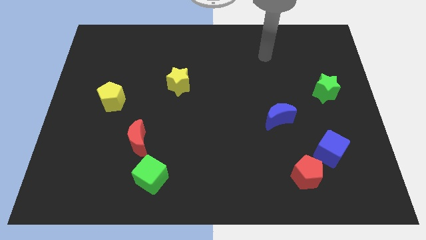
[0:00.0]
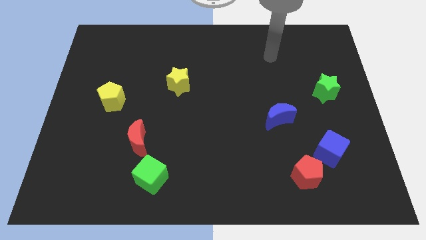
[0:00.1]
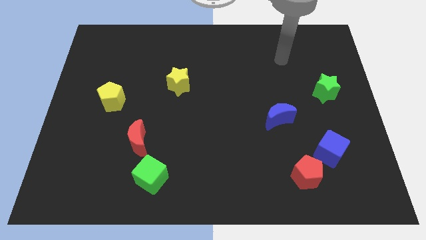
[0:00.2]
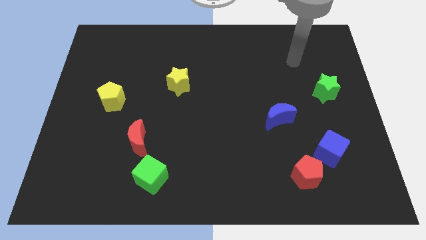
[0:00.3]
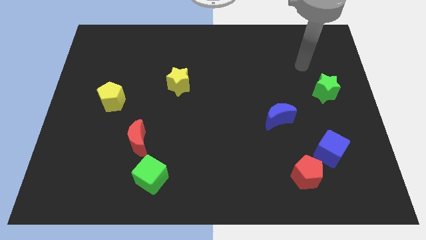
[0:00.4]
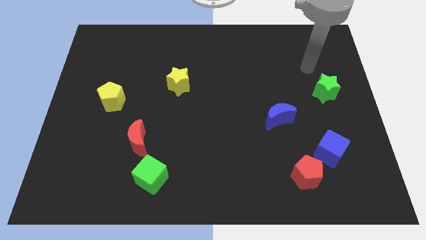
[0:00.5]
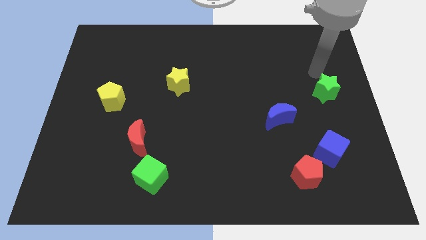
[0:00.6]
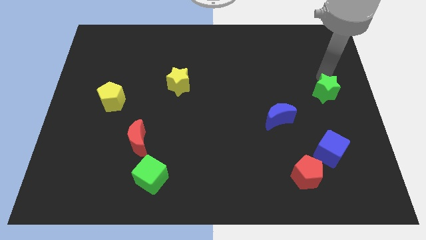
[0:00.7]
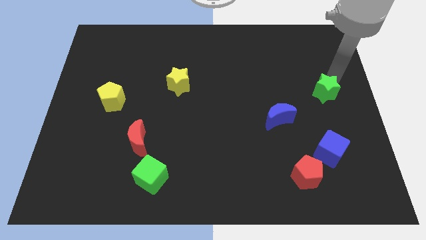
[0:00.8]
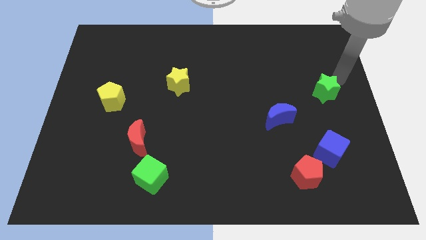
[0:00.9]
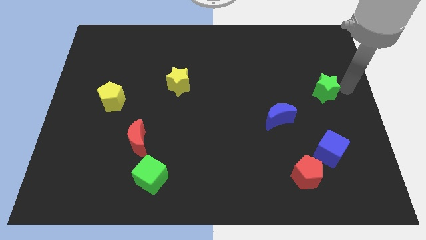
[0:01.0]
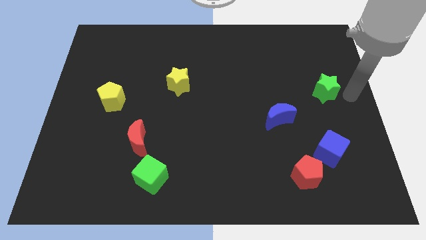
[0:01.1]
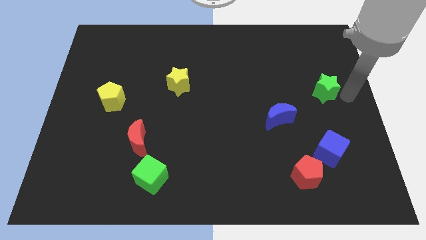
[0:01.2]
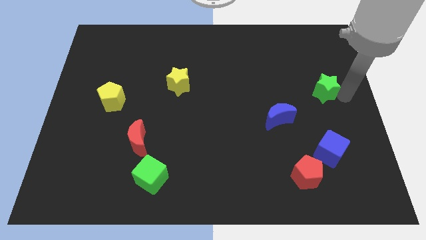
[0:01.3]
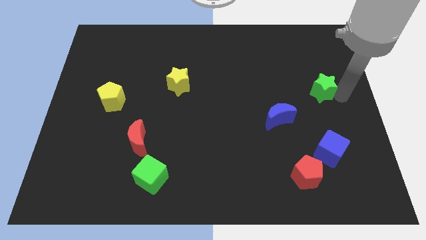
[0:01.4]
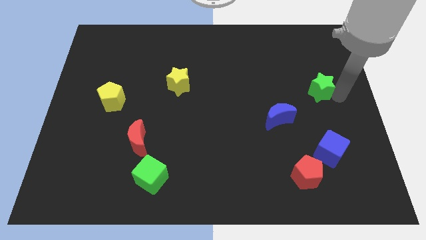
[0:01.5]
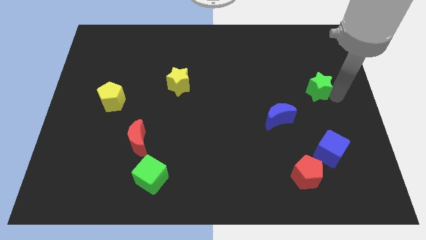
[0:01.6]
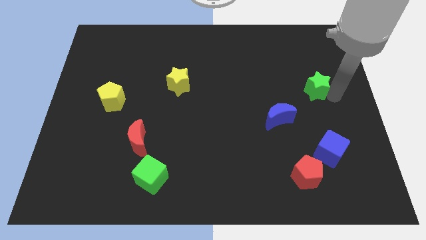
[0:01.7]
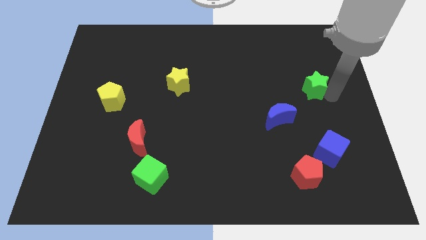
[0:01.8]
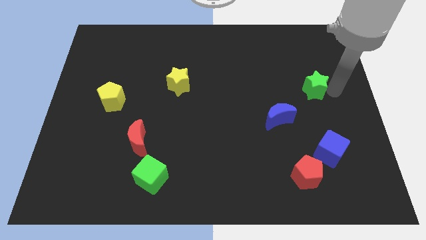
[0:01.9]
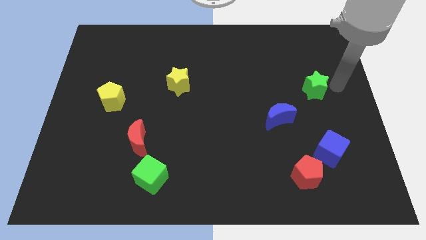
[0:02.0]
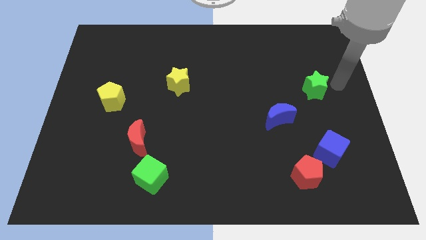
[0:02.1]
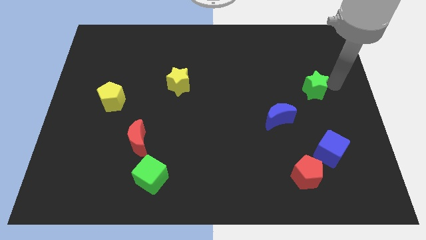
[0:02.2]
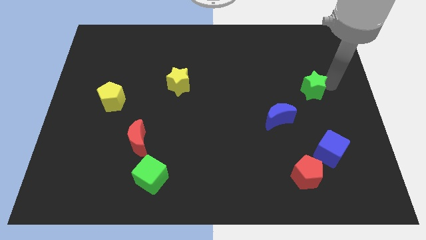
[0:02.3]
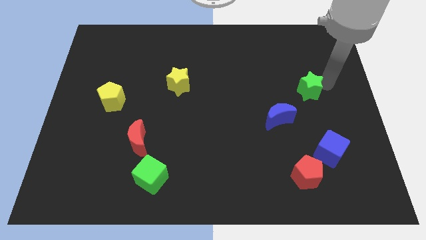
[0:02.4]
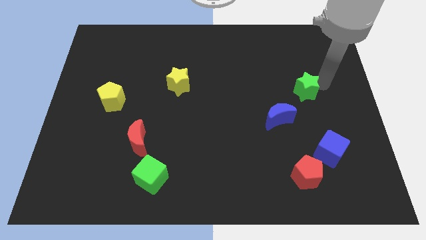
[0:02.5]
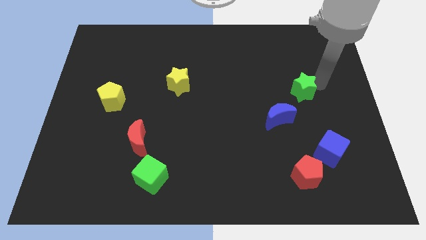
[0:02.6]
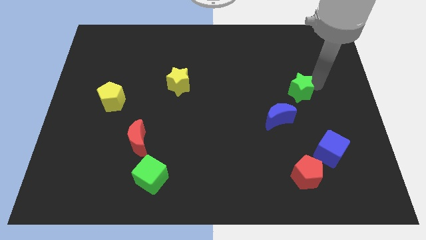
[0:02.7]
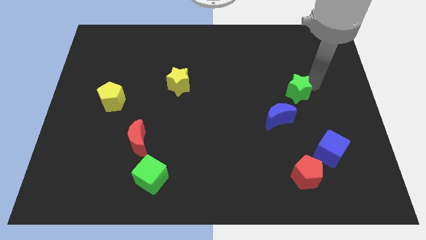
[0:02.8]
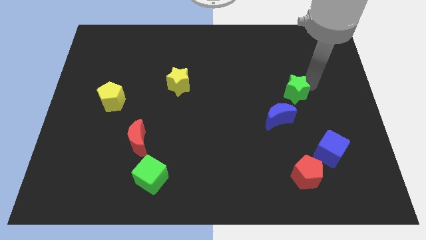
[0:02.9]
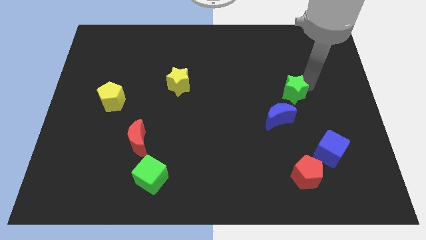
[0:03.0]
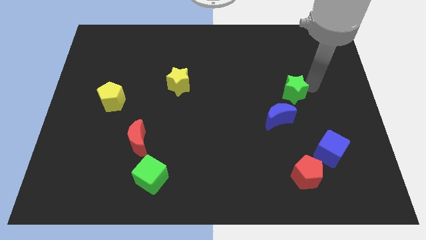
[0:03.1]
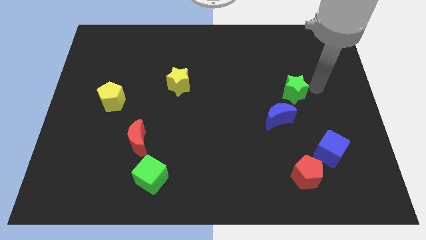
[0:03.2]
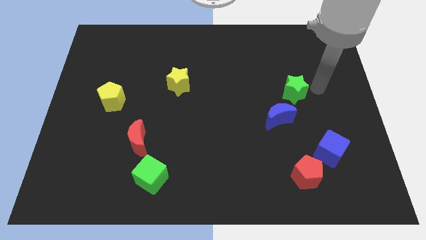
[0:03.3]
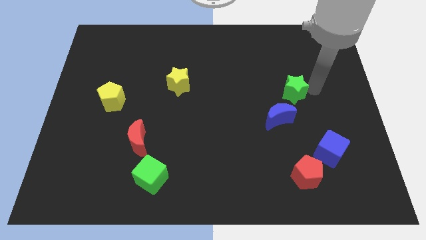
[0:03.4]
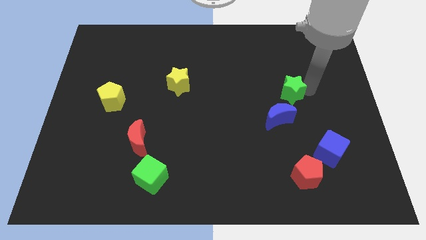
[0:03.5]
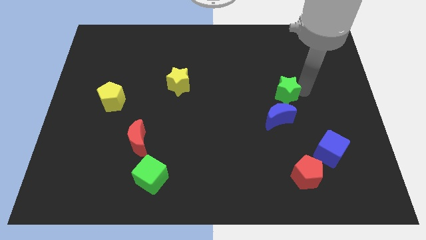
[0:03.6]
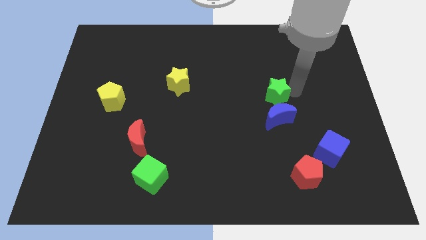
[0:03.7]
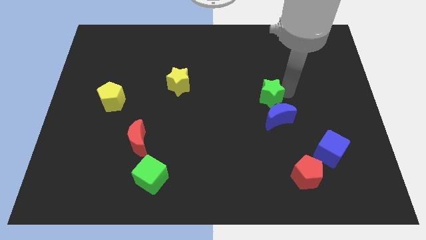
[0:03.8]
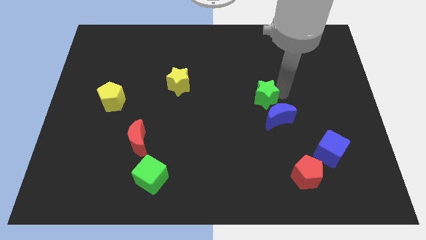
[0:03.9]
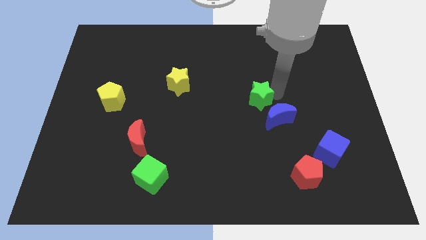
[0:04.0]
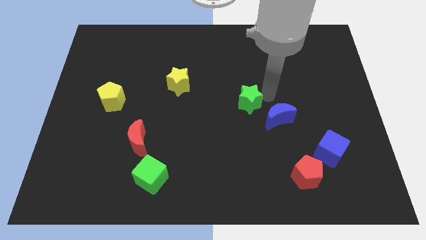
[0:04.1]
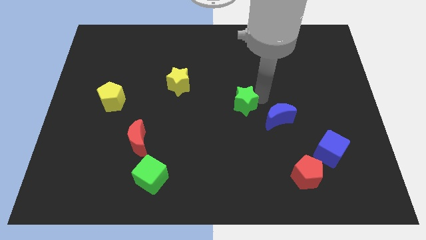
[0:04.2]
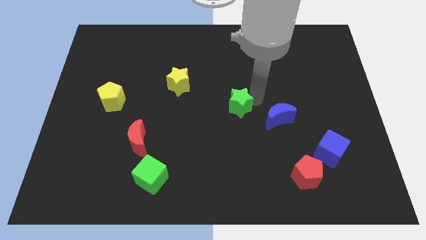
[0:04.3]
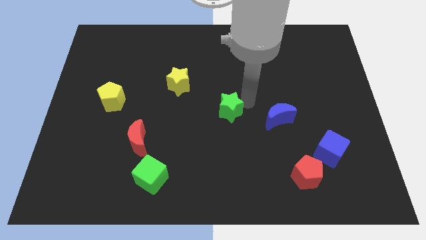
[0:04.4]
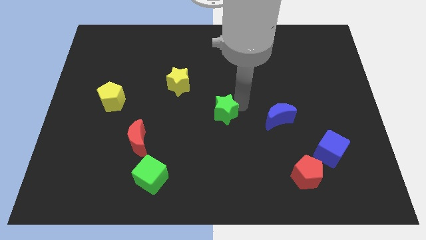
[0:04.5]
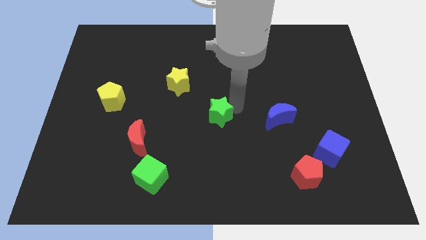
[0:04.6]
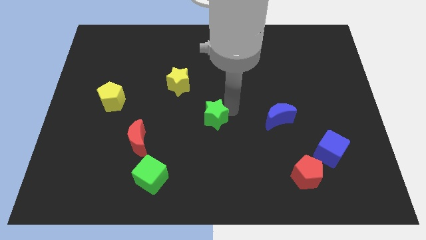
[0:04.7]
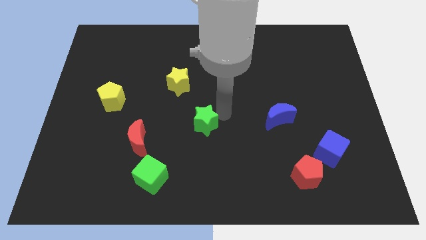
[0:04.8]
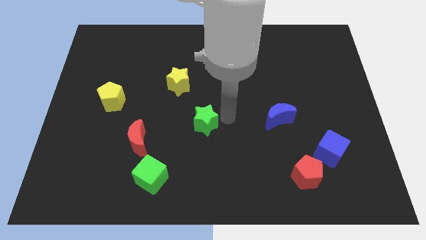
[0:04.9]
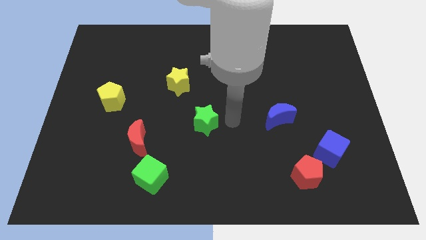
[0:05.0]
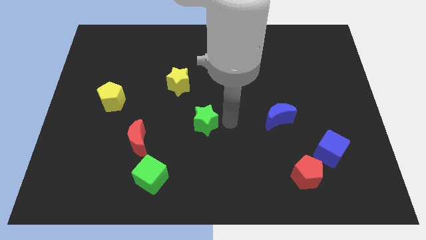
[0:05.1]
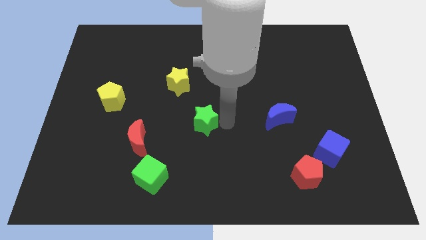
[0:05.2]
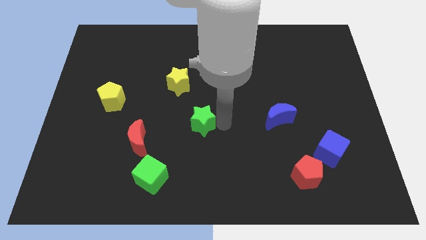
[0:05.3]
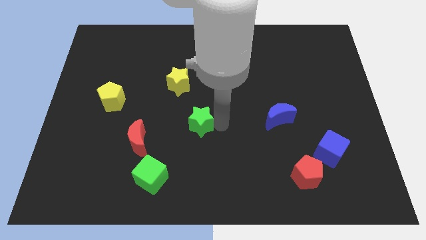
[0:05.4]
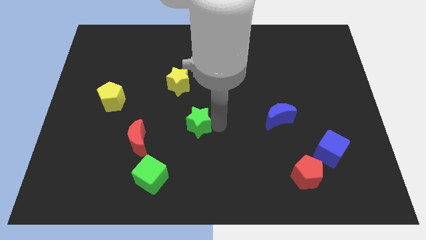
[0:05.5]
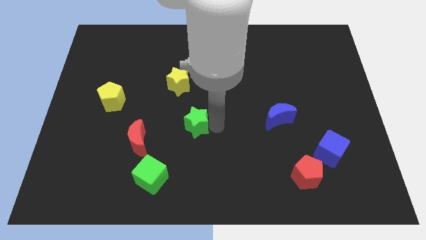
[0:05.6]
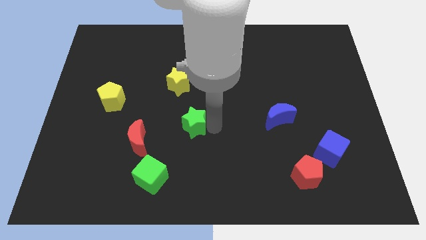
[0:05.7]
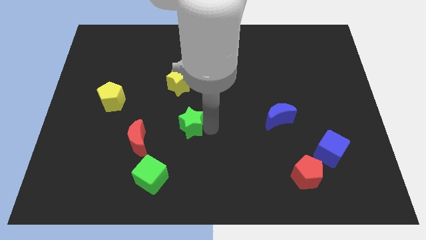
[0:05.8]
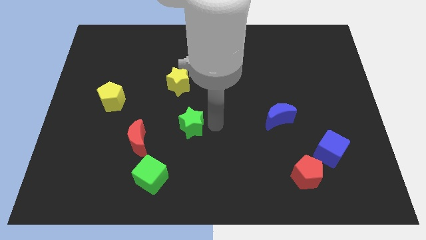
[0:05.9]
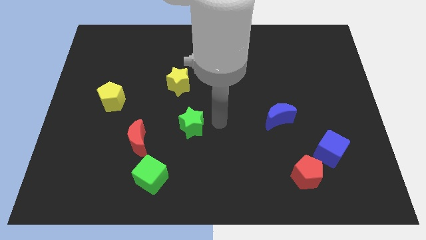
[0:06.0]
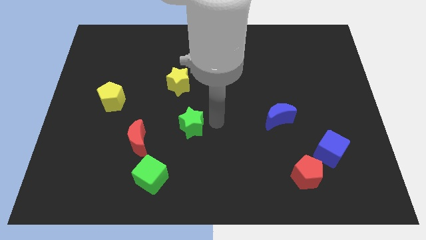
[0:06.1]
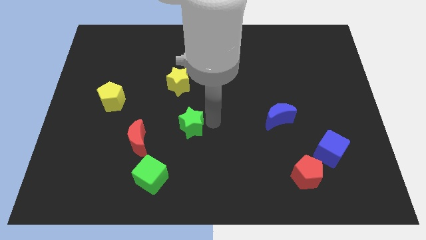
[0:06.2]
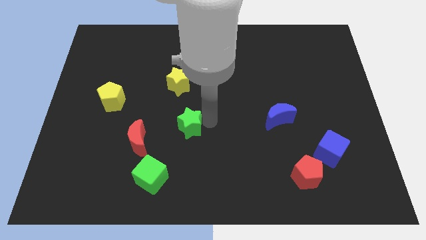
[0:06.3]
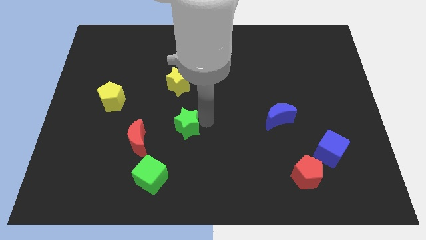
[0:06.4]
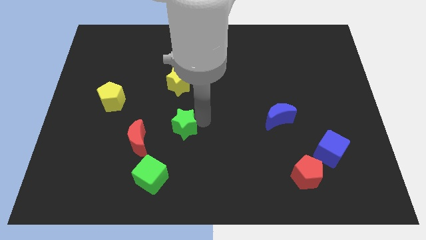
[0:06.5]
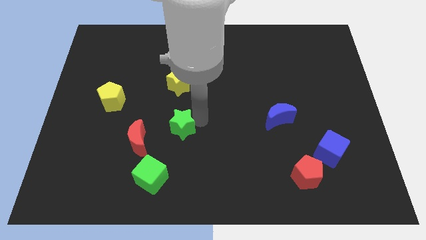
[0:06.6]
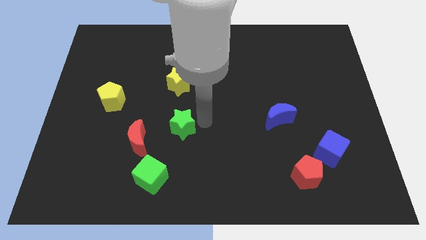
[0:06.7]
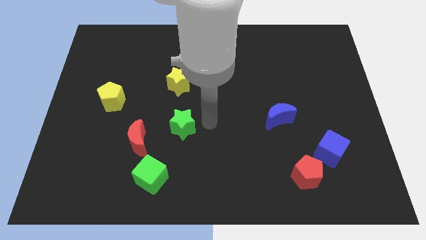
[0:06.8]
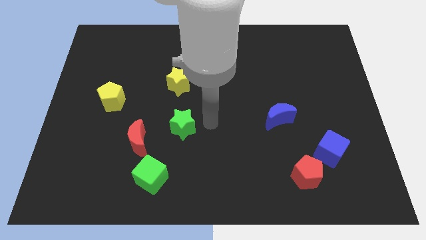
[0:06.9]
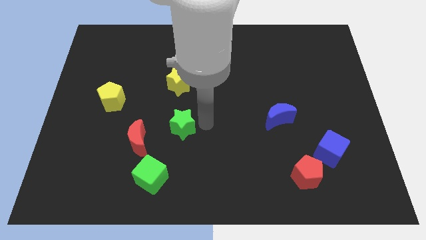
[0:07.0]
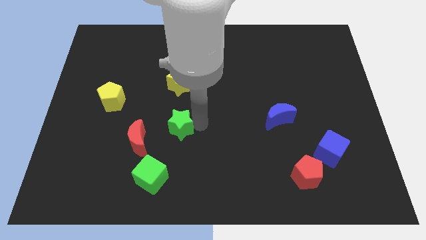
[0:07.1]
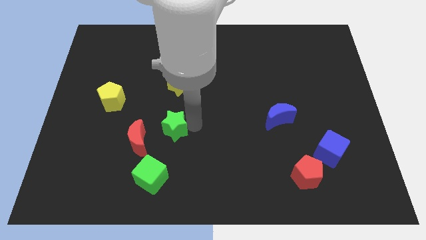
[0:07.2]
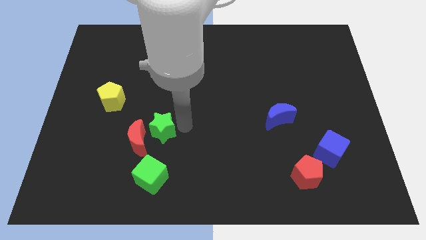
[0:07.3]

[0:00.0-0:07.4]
slide the green star towards the red moon
